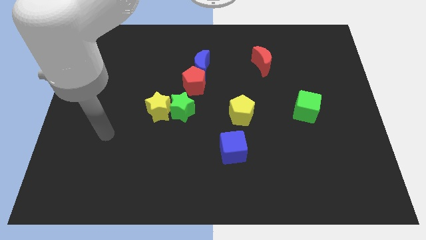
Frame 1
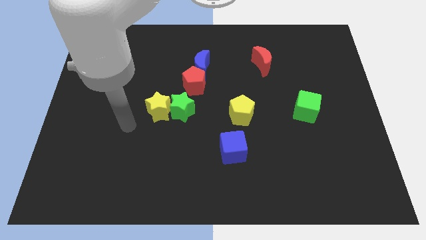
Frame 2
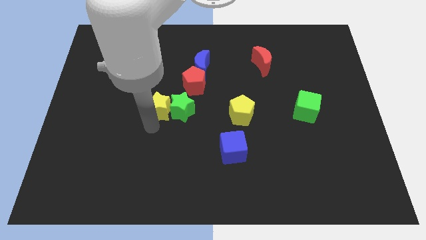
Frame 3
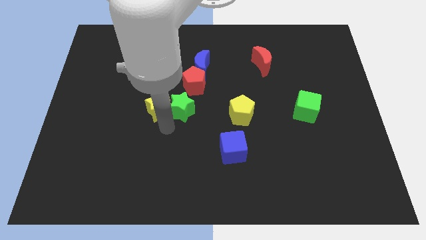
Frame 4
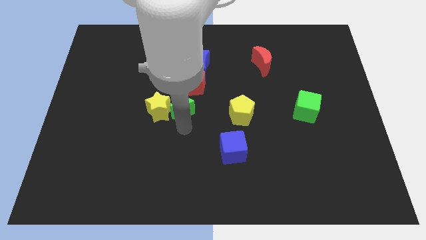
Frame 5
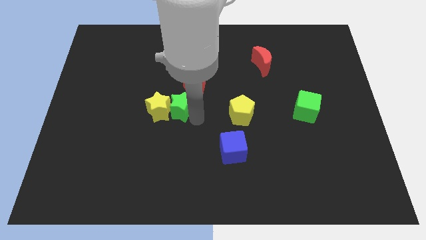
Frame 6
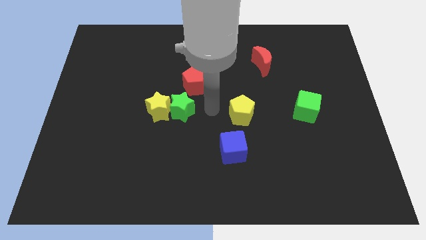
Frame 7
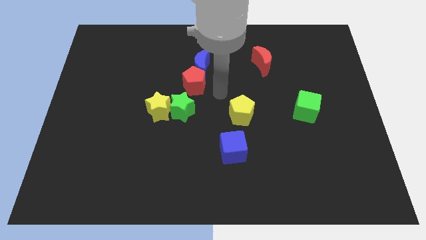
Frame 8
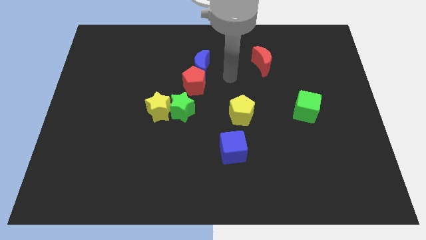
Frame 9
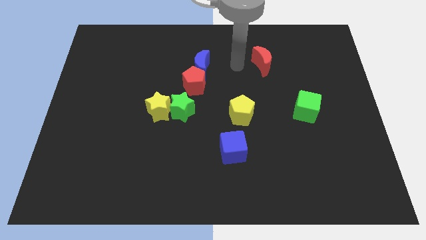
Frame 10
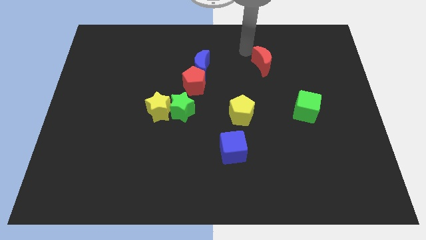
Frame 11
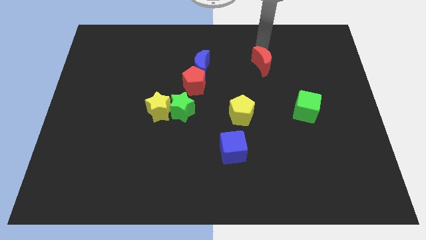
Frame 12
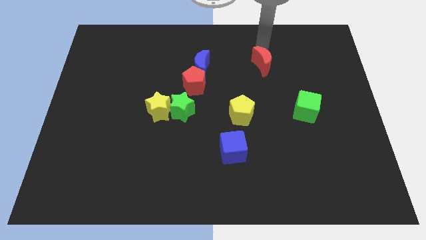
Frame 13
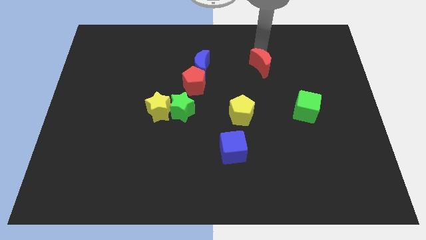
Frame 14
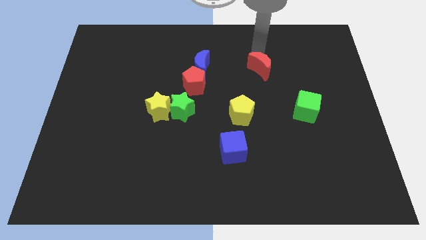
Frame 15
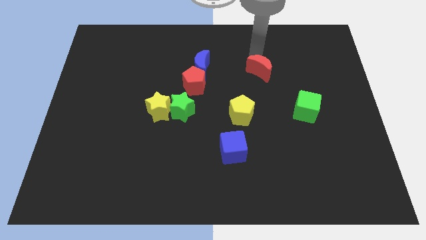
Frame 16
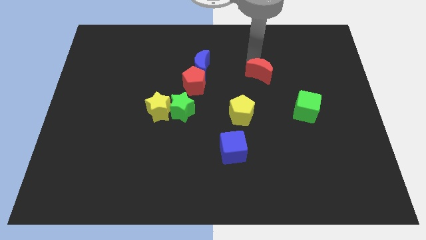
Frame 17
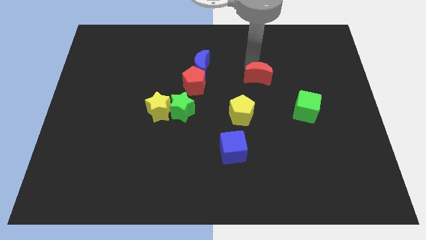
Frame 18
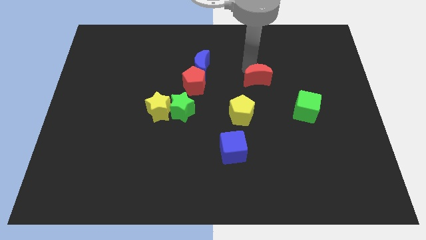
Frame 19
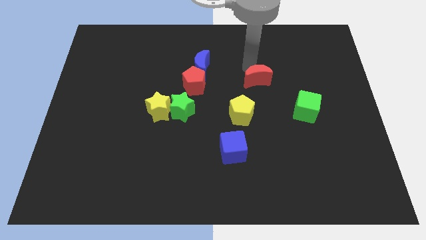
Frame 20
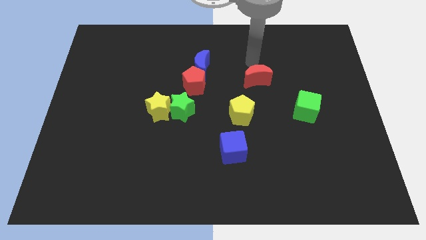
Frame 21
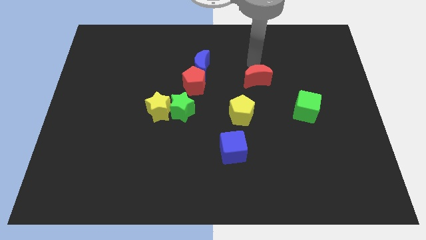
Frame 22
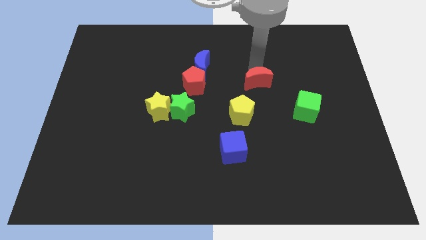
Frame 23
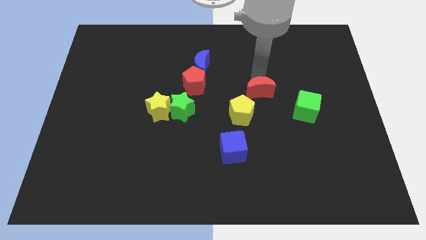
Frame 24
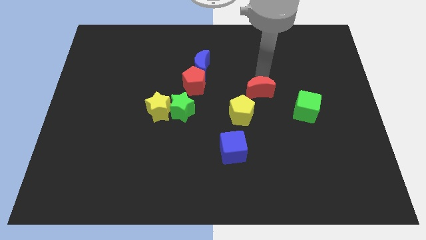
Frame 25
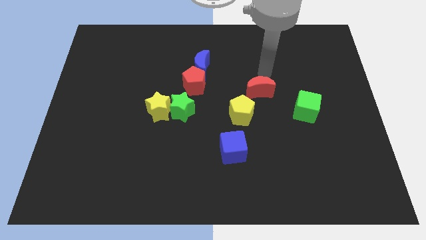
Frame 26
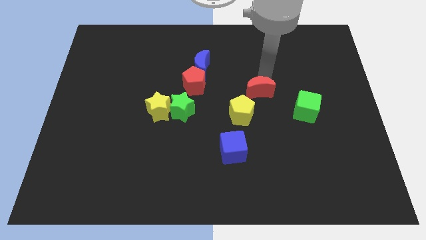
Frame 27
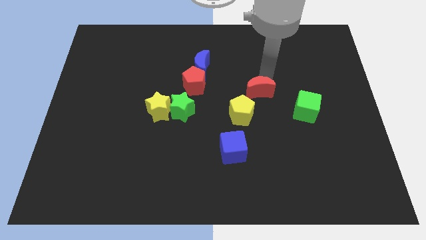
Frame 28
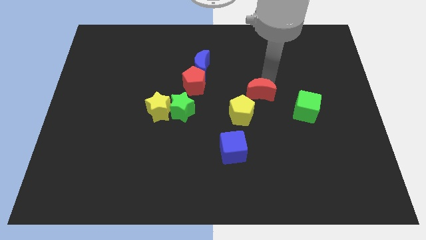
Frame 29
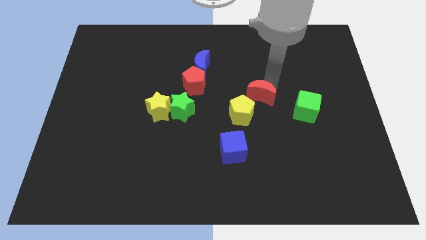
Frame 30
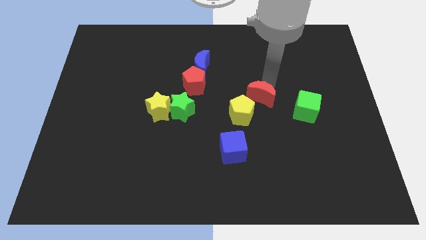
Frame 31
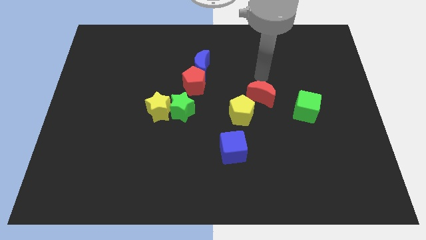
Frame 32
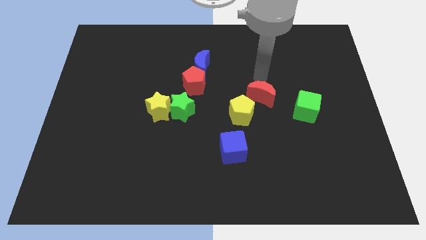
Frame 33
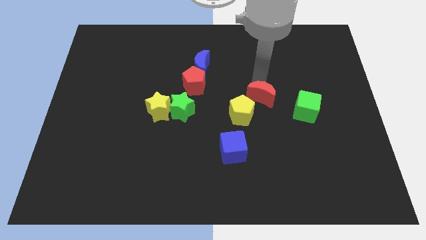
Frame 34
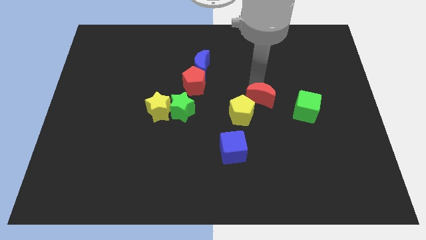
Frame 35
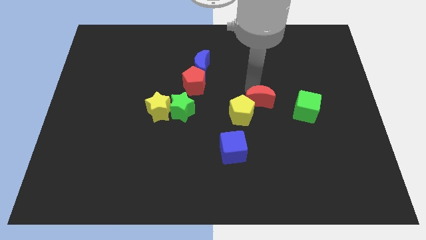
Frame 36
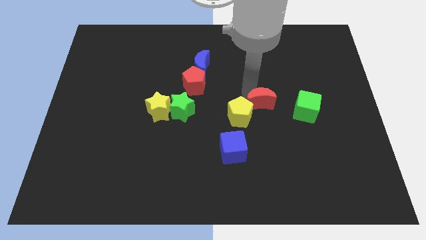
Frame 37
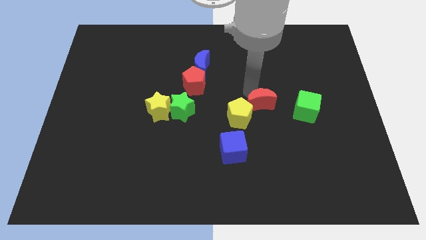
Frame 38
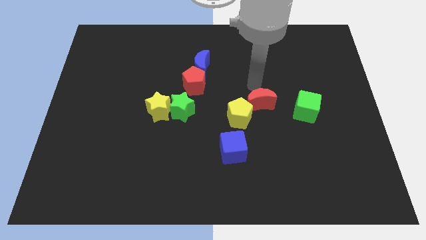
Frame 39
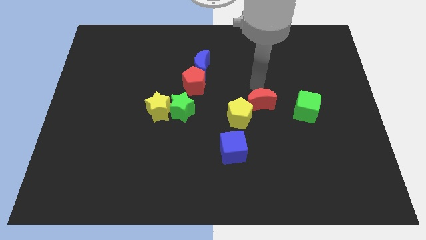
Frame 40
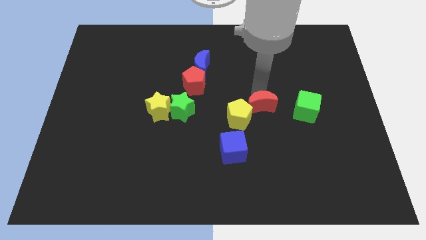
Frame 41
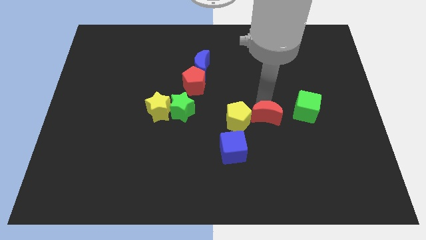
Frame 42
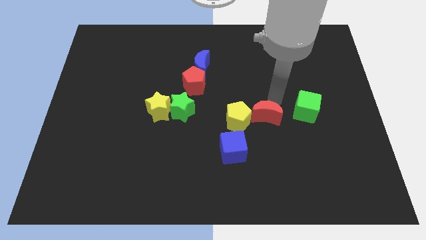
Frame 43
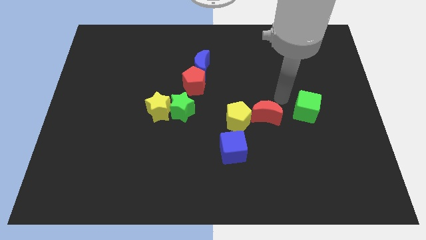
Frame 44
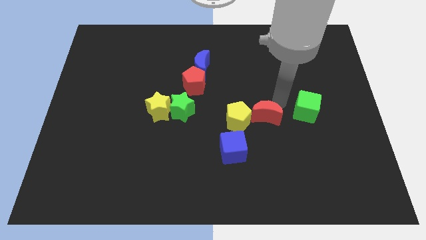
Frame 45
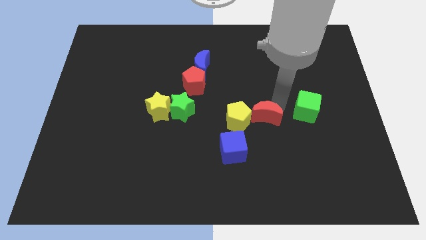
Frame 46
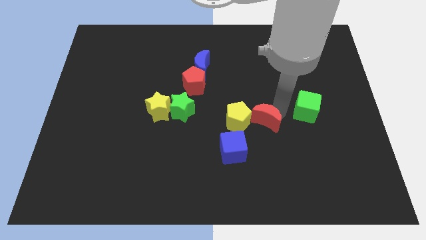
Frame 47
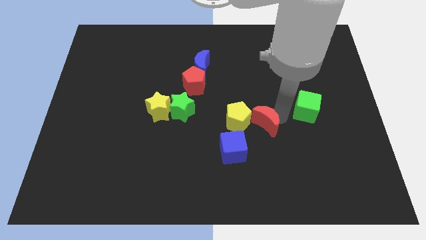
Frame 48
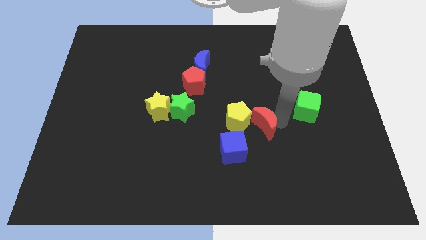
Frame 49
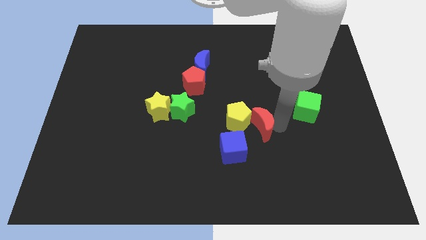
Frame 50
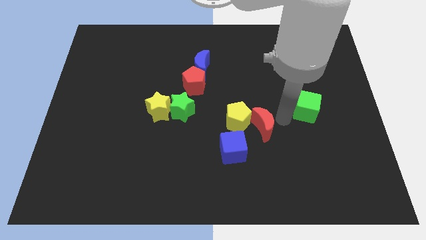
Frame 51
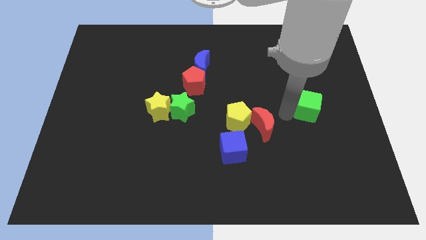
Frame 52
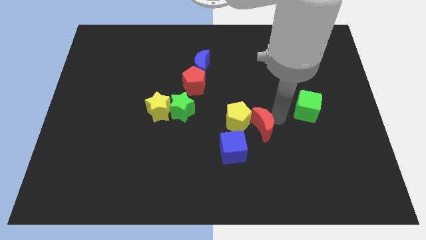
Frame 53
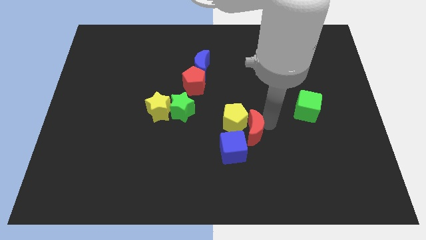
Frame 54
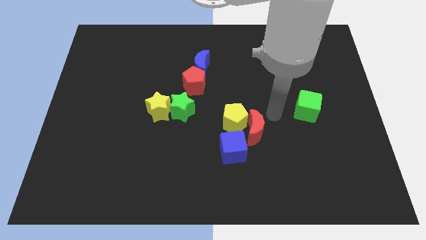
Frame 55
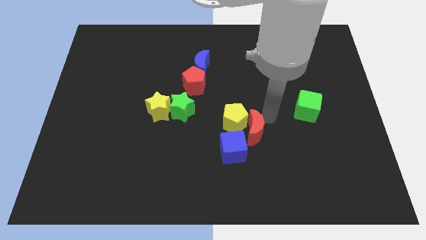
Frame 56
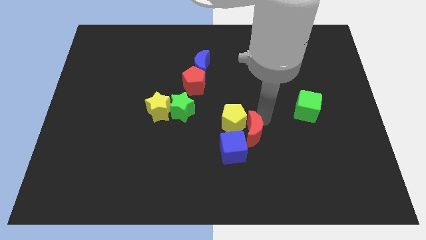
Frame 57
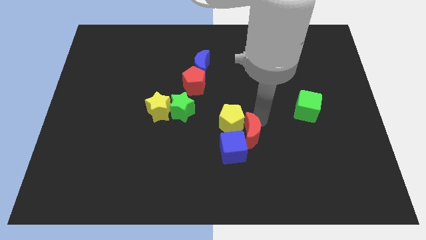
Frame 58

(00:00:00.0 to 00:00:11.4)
put the red moon close to the blue cube

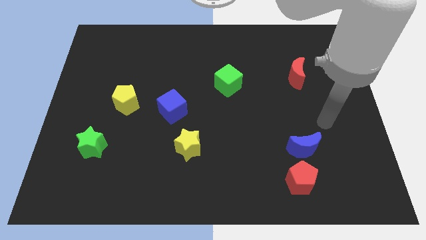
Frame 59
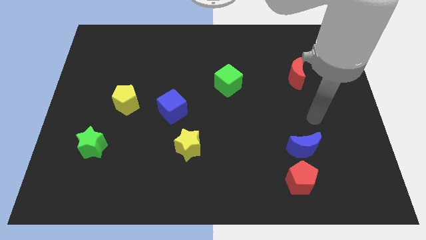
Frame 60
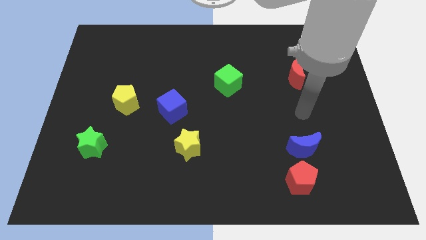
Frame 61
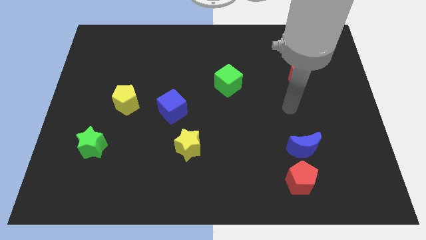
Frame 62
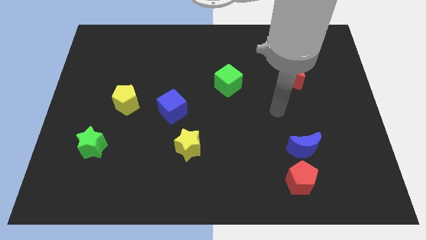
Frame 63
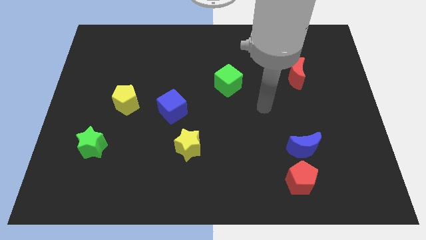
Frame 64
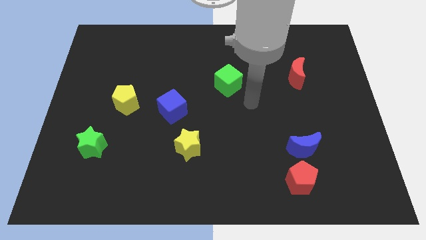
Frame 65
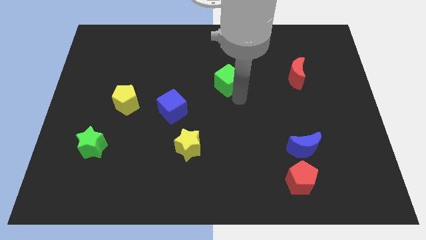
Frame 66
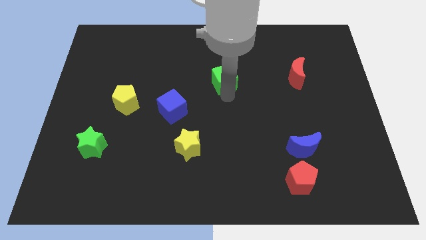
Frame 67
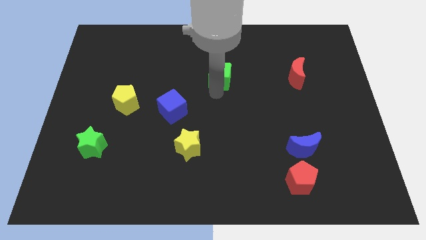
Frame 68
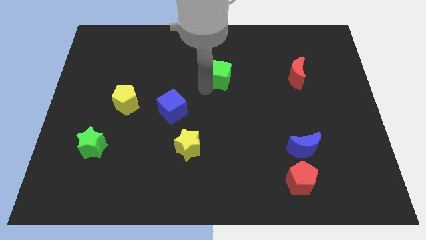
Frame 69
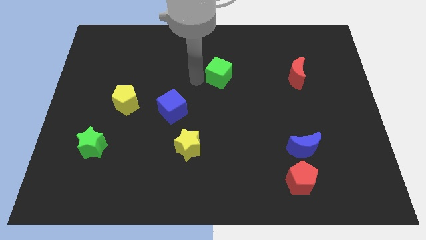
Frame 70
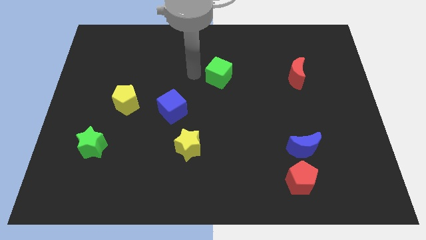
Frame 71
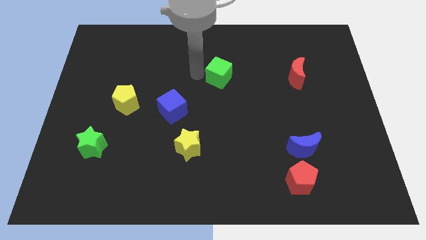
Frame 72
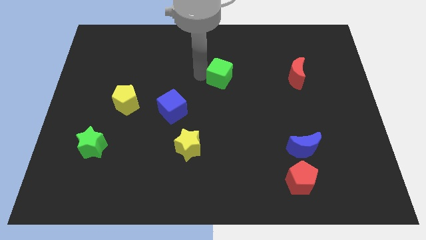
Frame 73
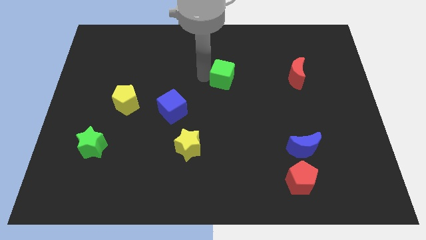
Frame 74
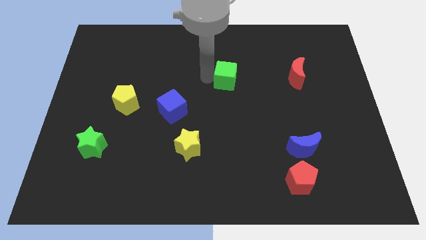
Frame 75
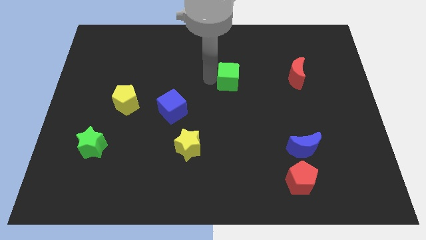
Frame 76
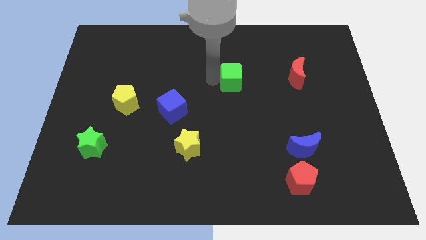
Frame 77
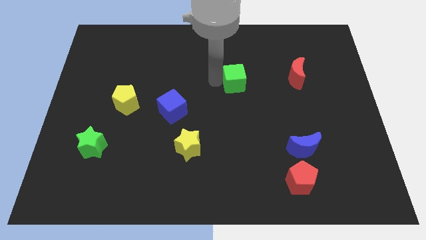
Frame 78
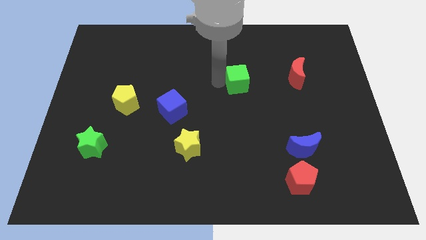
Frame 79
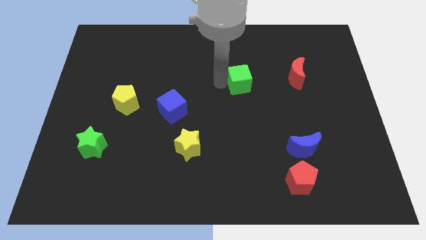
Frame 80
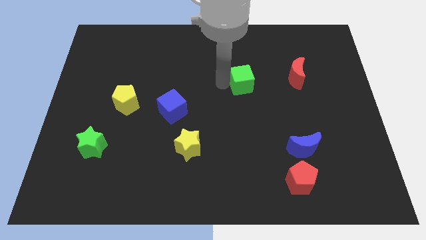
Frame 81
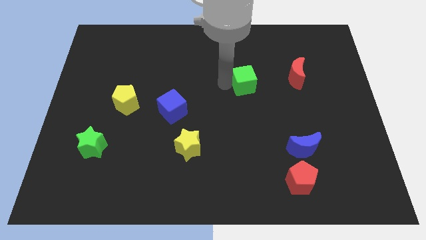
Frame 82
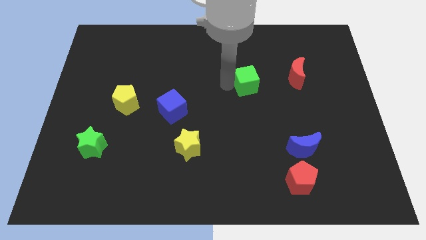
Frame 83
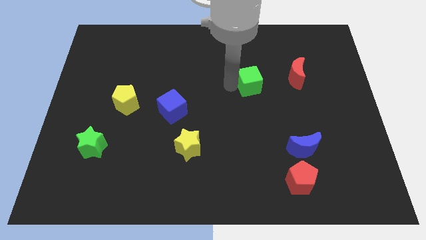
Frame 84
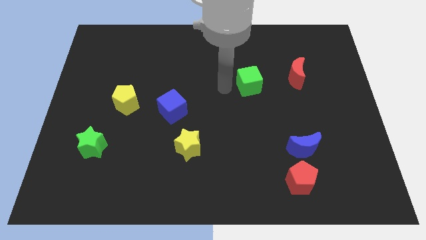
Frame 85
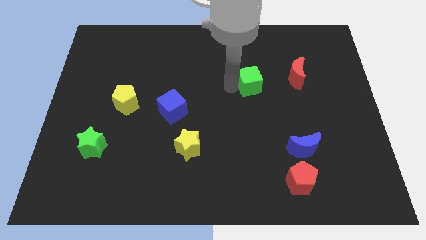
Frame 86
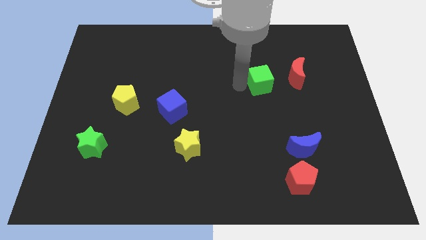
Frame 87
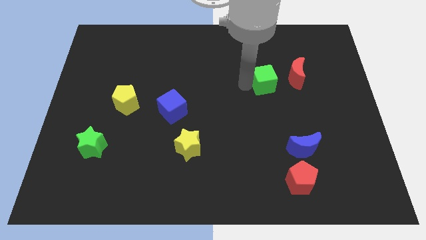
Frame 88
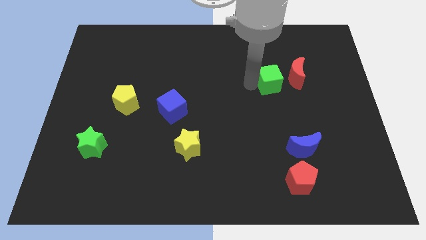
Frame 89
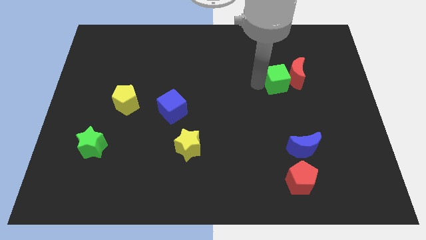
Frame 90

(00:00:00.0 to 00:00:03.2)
move the green cube close to the red moon
